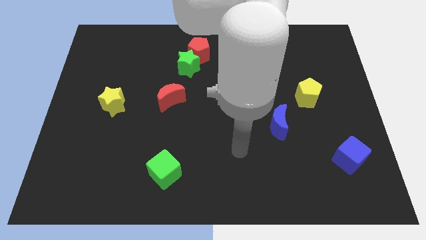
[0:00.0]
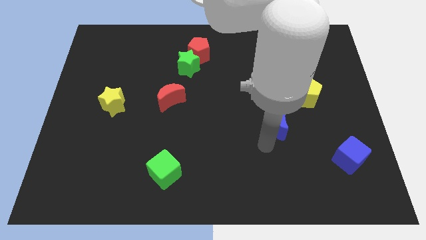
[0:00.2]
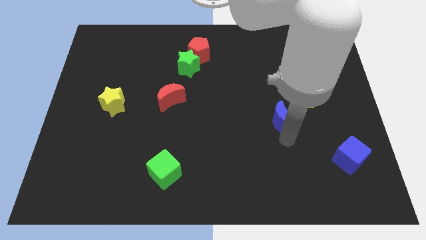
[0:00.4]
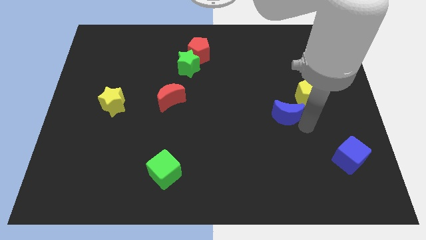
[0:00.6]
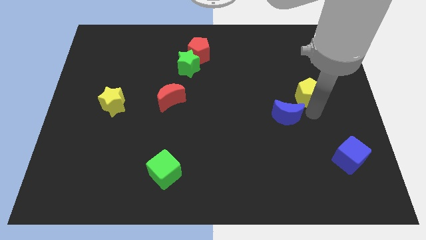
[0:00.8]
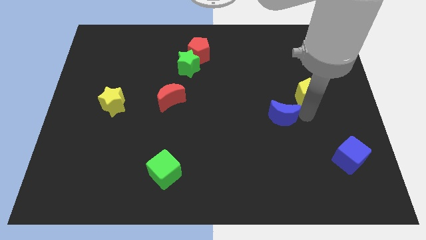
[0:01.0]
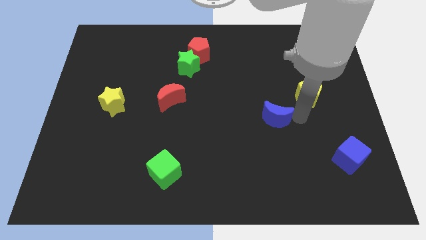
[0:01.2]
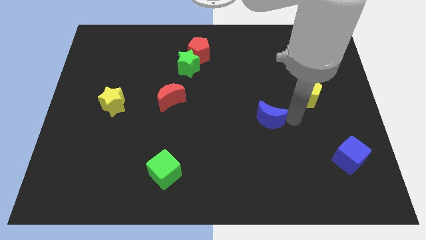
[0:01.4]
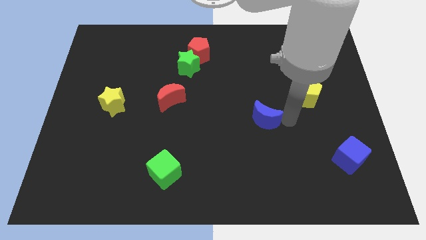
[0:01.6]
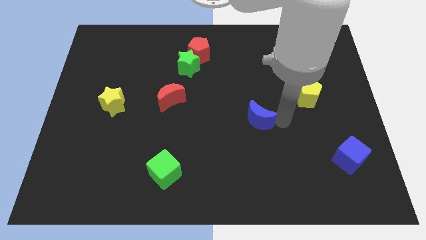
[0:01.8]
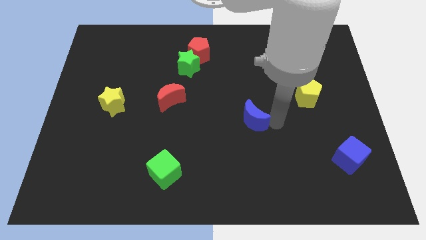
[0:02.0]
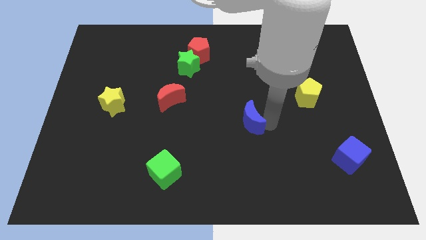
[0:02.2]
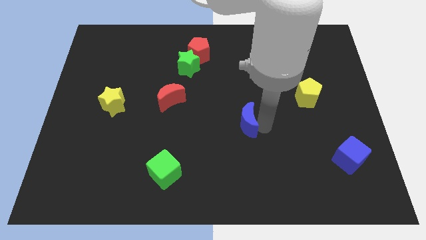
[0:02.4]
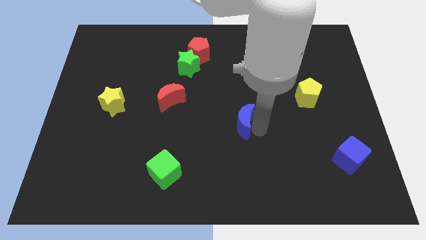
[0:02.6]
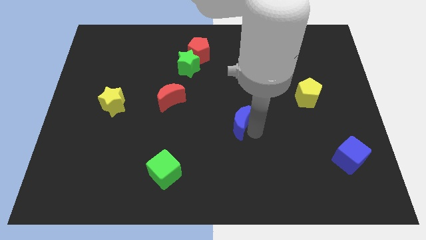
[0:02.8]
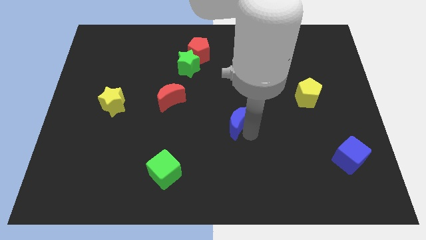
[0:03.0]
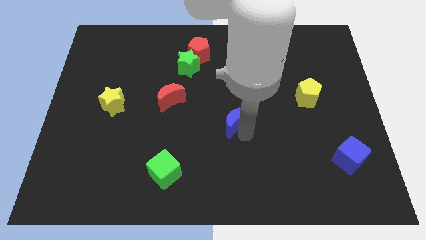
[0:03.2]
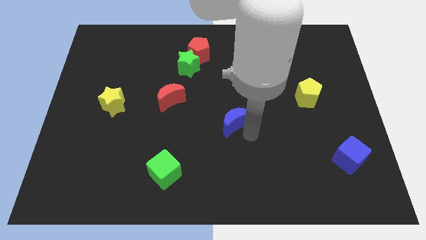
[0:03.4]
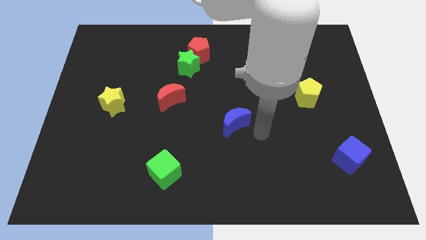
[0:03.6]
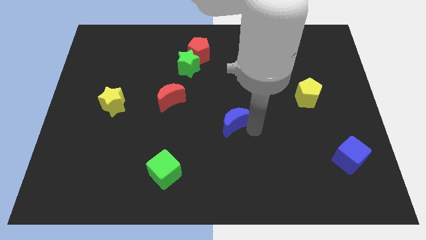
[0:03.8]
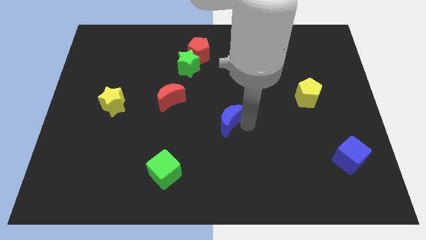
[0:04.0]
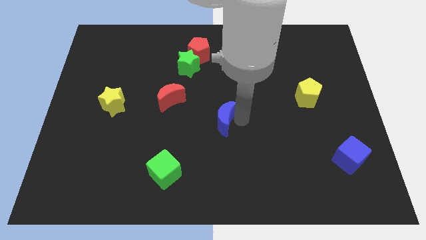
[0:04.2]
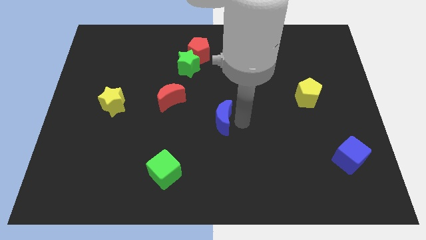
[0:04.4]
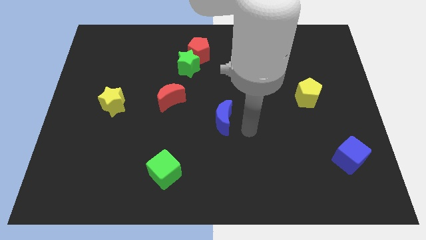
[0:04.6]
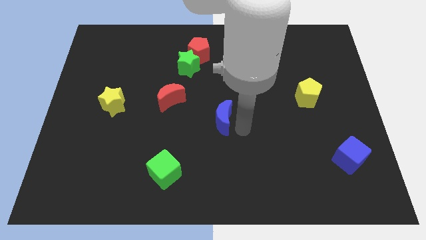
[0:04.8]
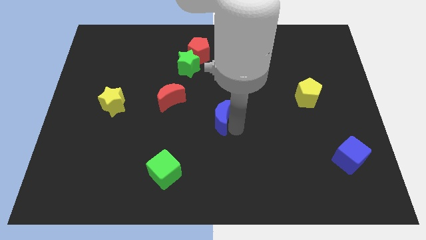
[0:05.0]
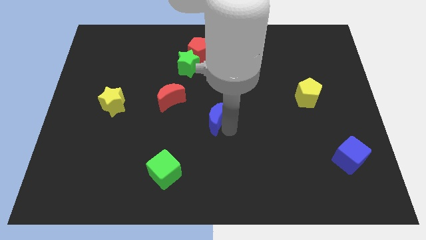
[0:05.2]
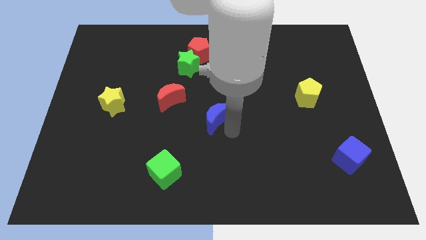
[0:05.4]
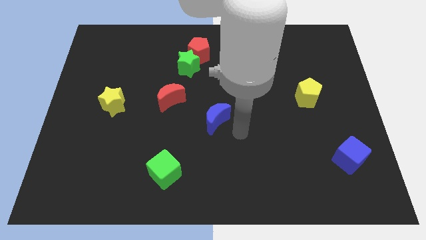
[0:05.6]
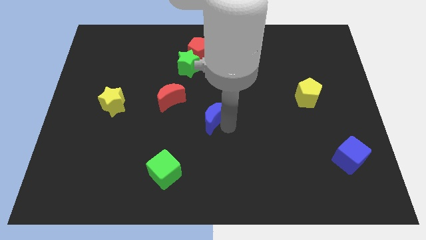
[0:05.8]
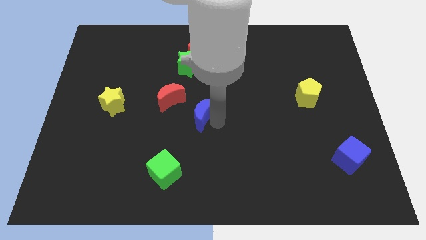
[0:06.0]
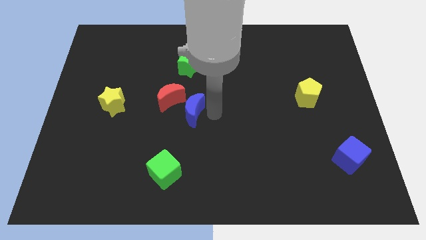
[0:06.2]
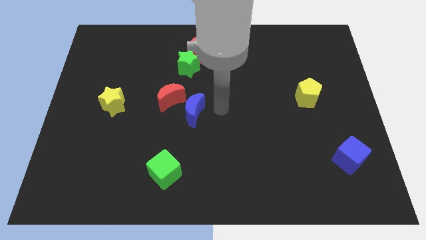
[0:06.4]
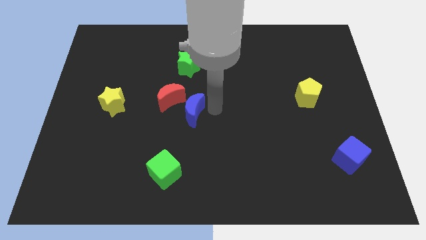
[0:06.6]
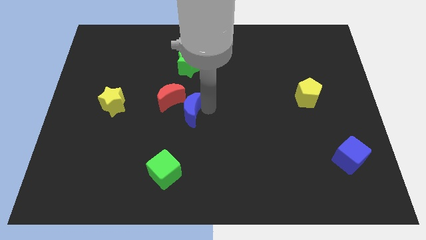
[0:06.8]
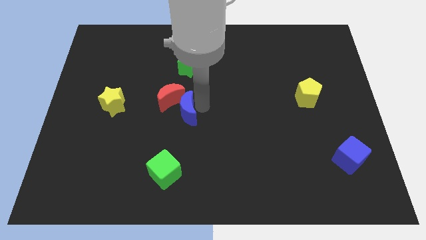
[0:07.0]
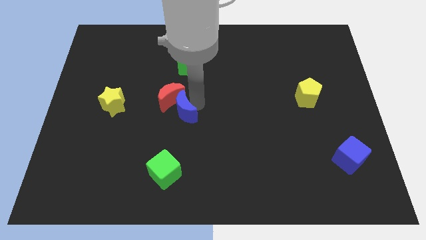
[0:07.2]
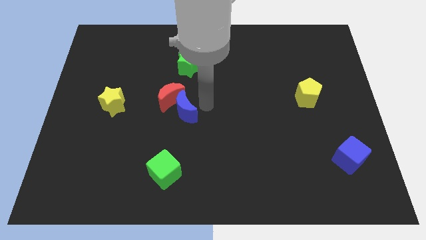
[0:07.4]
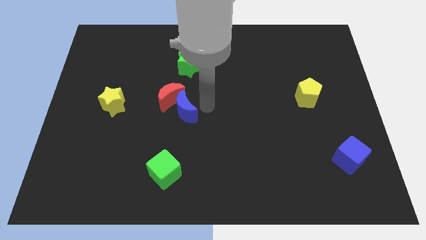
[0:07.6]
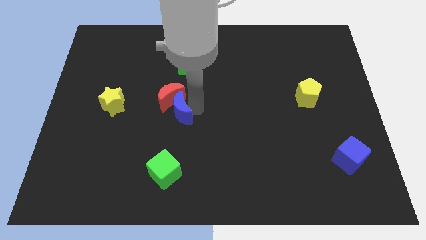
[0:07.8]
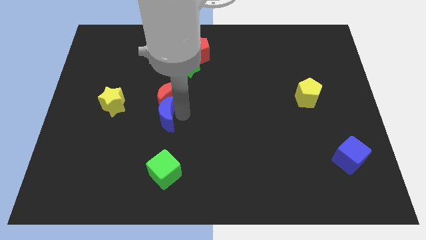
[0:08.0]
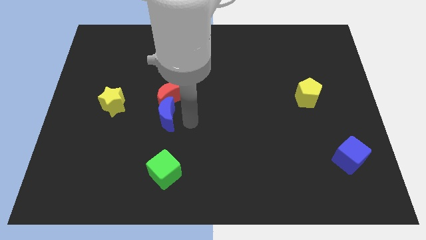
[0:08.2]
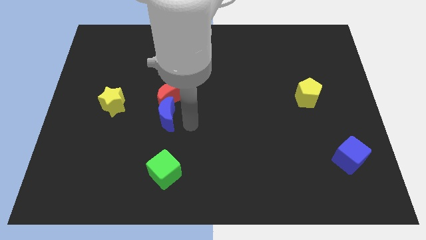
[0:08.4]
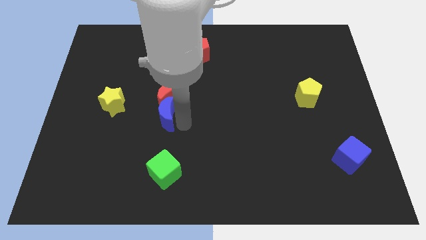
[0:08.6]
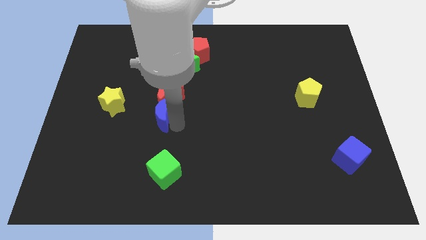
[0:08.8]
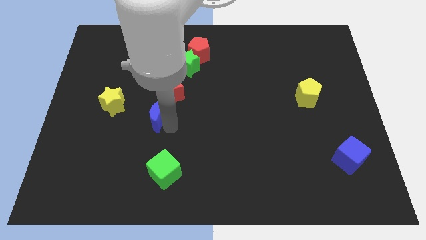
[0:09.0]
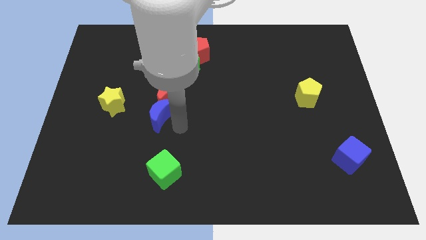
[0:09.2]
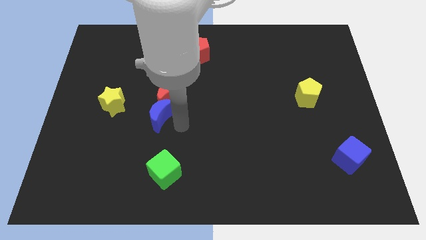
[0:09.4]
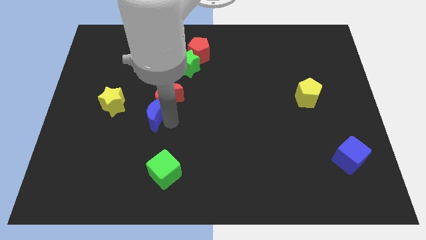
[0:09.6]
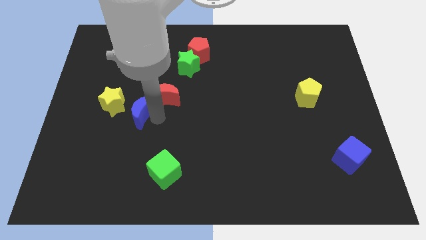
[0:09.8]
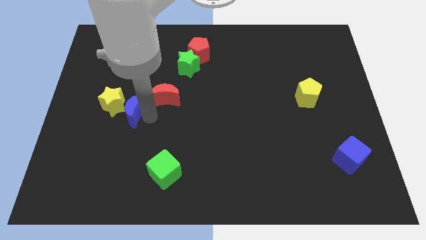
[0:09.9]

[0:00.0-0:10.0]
slide the blue moon towards the yellow star

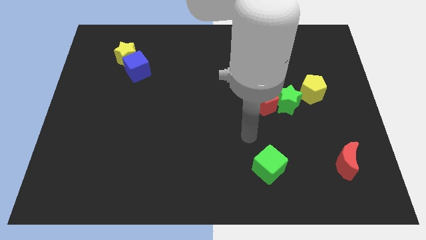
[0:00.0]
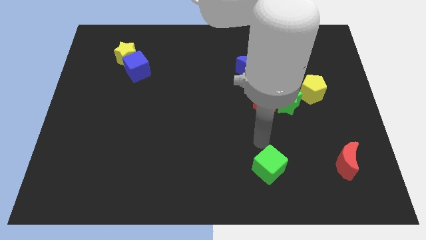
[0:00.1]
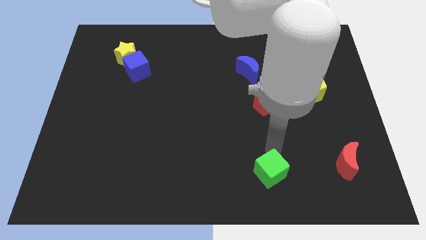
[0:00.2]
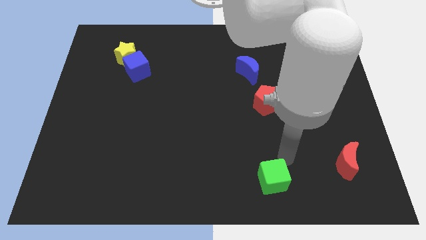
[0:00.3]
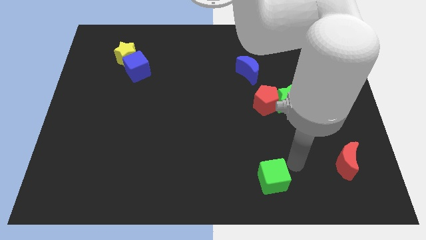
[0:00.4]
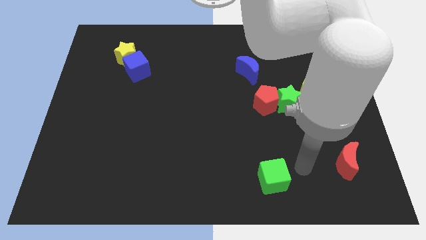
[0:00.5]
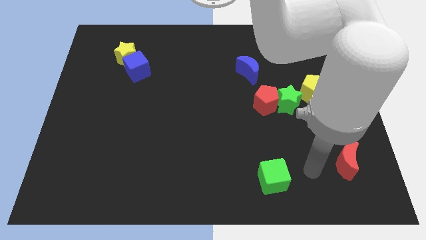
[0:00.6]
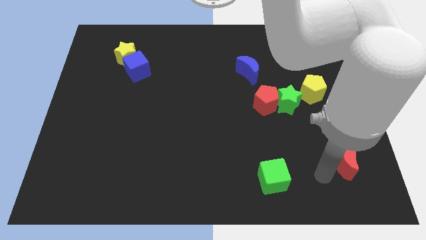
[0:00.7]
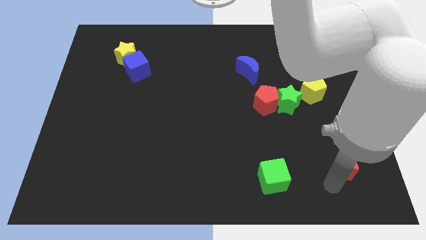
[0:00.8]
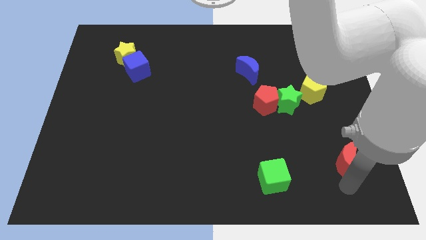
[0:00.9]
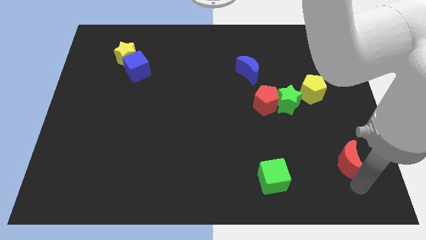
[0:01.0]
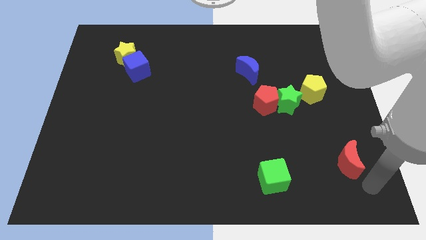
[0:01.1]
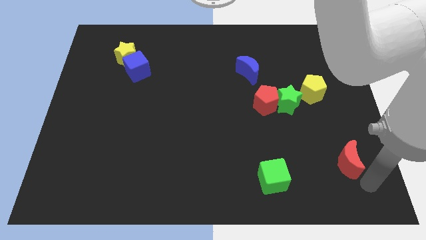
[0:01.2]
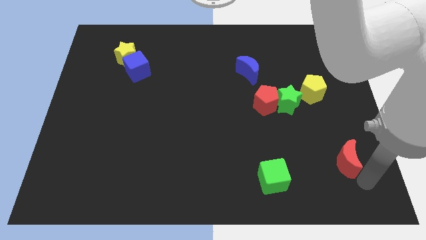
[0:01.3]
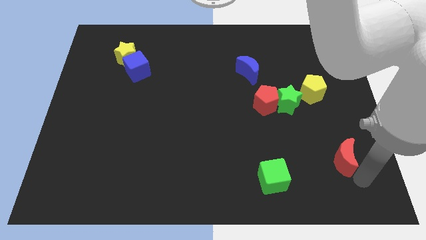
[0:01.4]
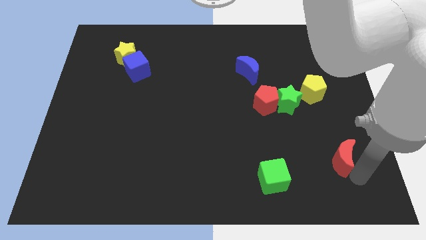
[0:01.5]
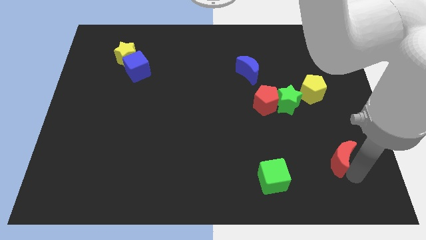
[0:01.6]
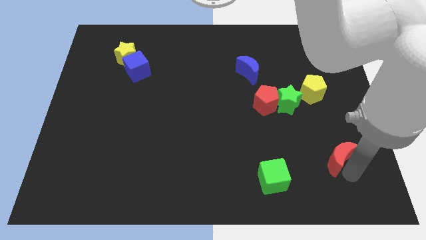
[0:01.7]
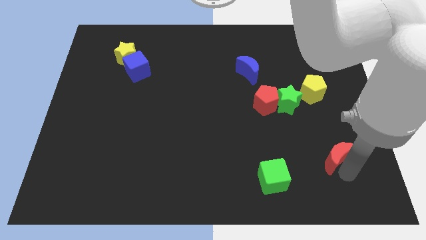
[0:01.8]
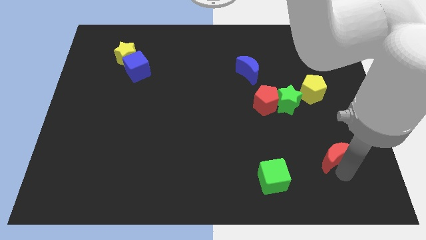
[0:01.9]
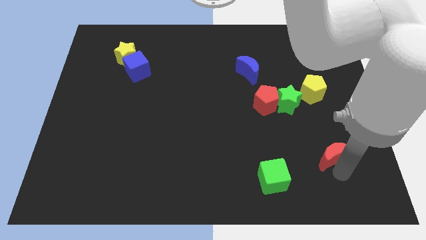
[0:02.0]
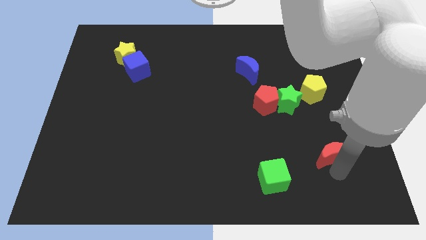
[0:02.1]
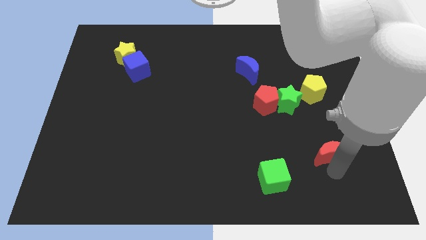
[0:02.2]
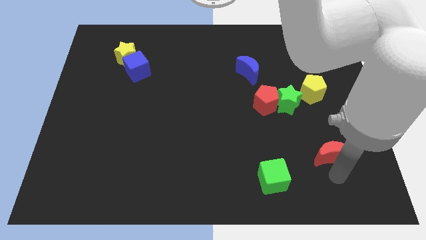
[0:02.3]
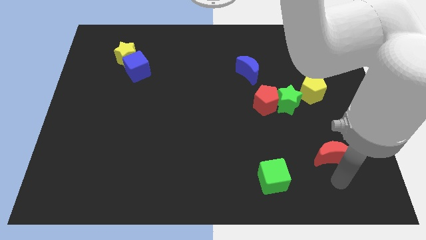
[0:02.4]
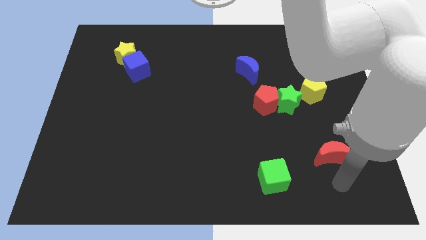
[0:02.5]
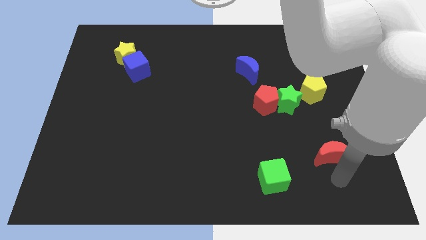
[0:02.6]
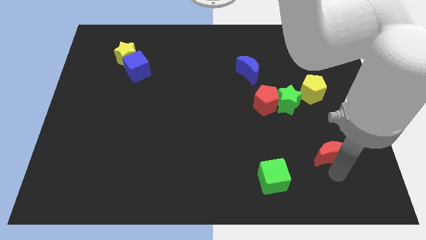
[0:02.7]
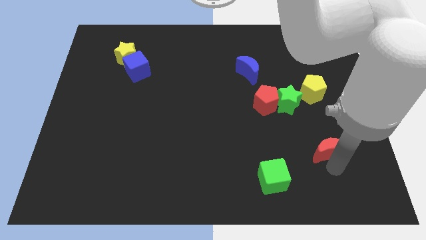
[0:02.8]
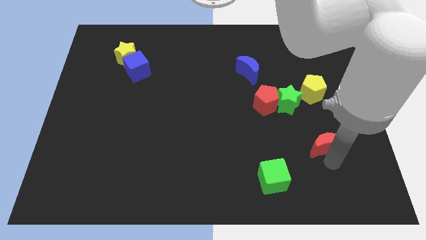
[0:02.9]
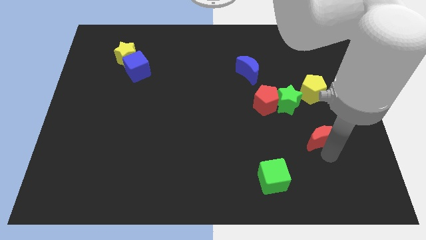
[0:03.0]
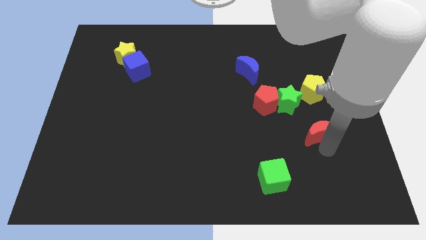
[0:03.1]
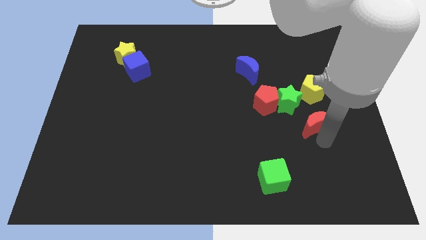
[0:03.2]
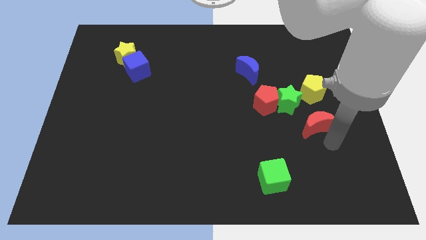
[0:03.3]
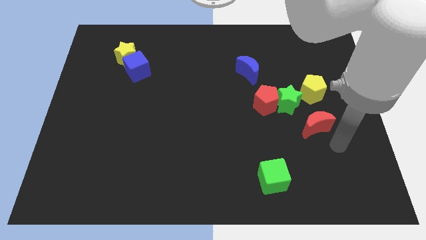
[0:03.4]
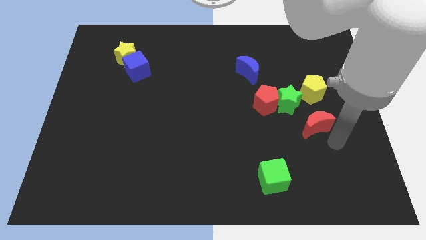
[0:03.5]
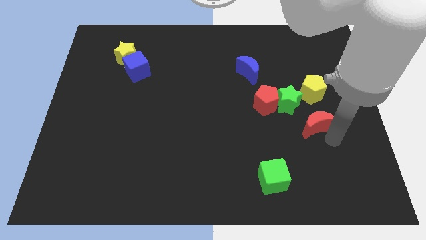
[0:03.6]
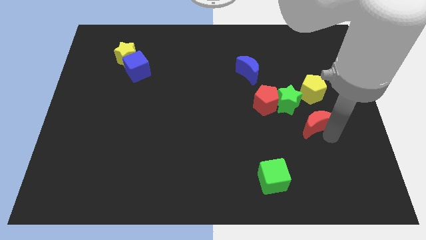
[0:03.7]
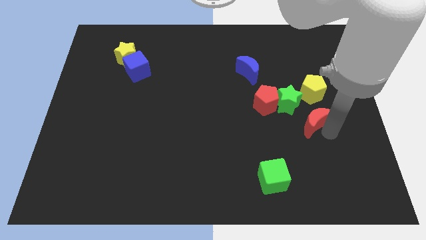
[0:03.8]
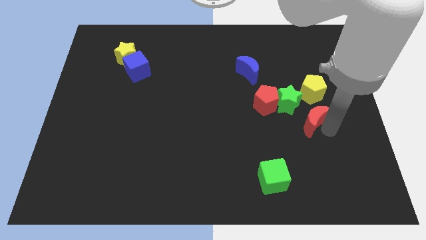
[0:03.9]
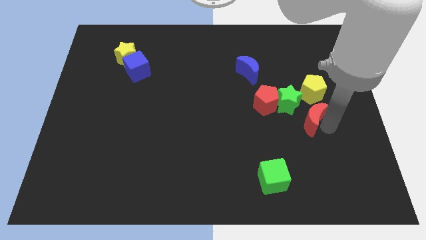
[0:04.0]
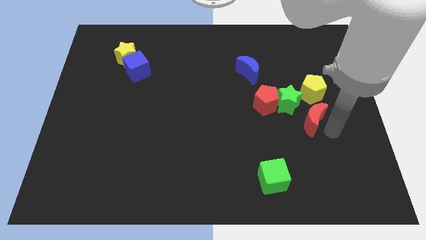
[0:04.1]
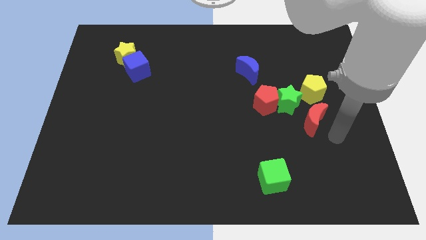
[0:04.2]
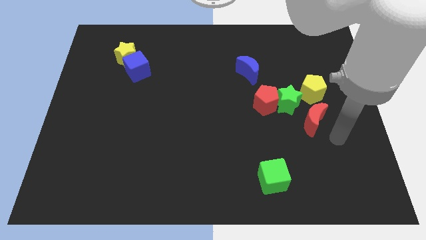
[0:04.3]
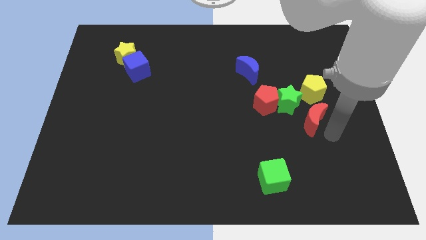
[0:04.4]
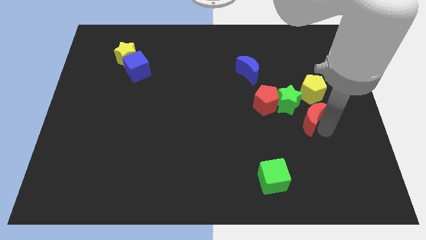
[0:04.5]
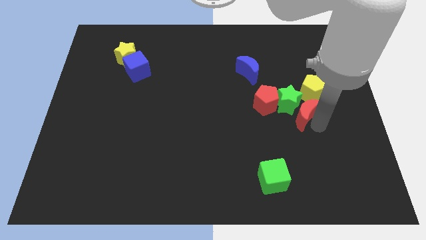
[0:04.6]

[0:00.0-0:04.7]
move the red moon towards the green star
